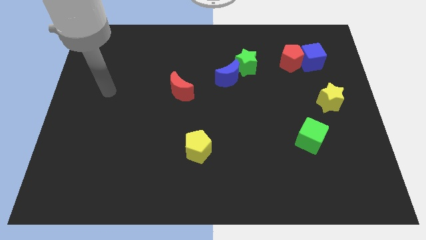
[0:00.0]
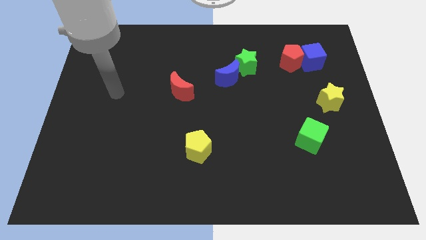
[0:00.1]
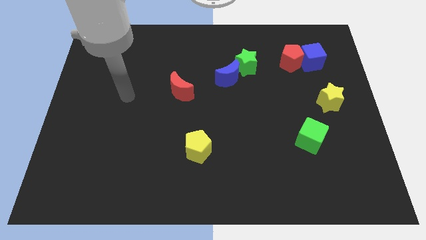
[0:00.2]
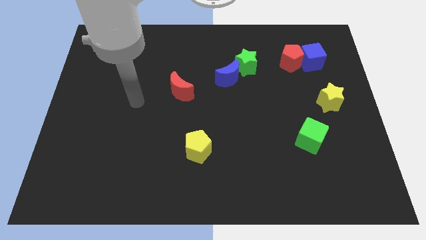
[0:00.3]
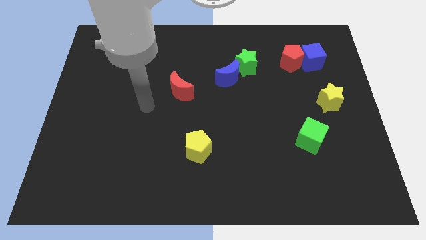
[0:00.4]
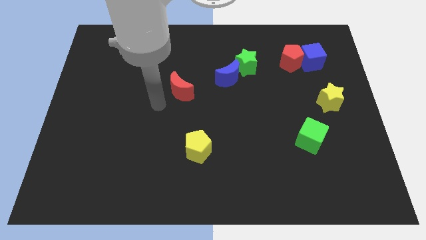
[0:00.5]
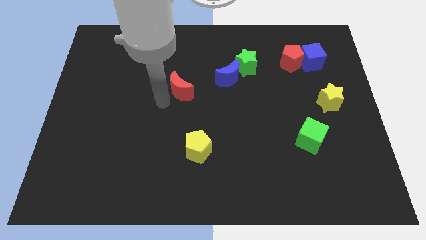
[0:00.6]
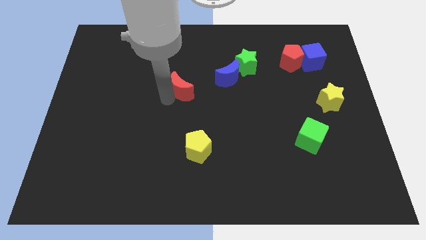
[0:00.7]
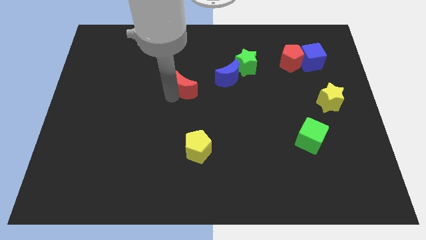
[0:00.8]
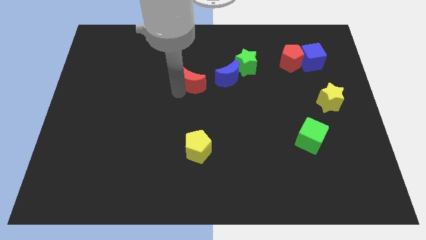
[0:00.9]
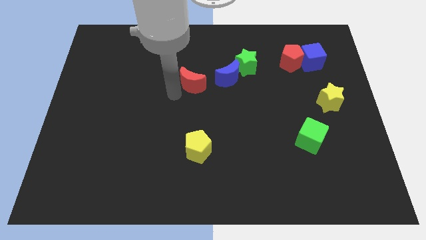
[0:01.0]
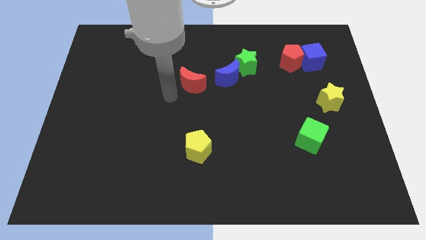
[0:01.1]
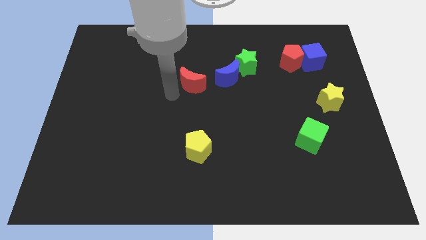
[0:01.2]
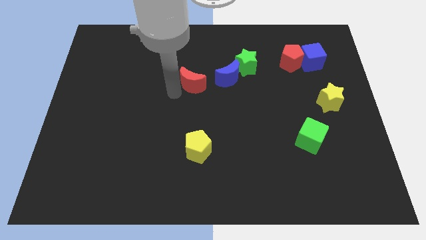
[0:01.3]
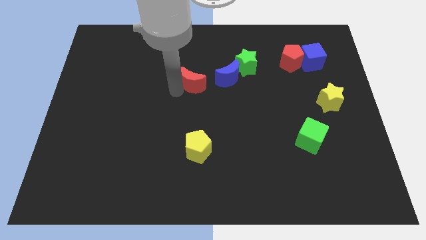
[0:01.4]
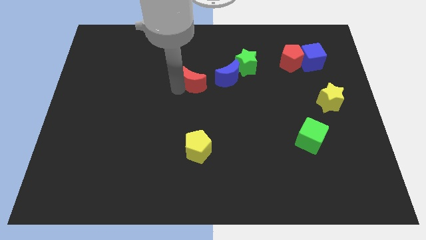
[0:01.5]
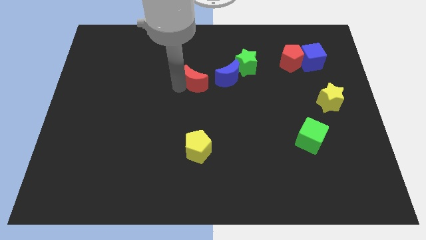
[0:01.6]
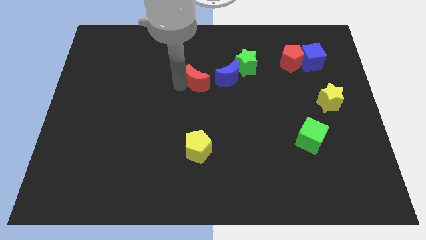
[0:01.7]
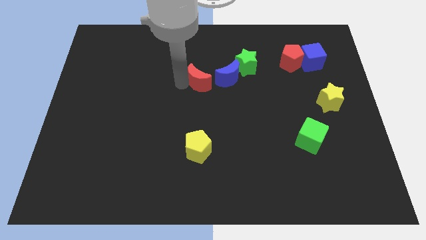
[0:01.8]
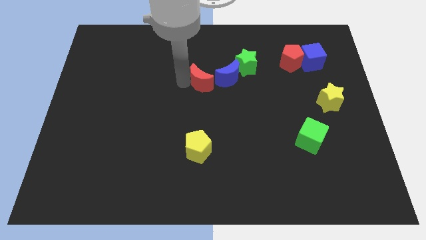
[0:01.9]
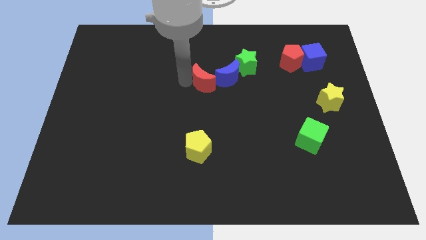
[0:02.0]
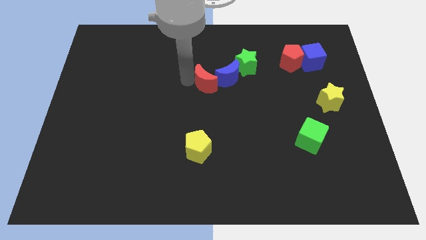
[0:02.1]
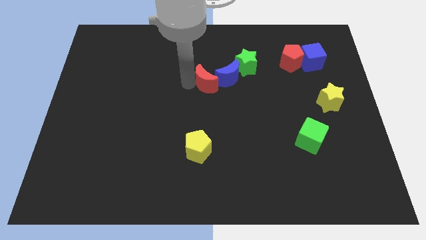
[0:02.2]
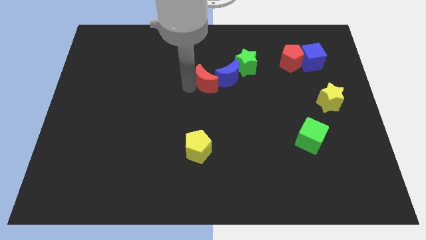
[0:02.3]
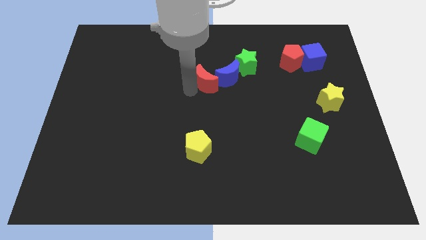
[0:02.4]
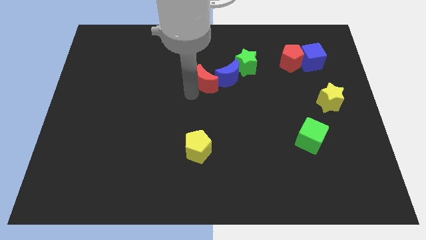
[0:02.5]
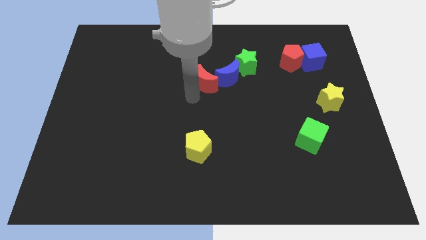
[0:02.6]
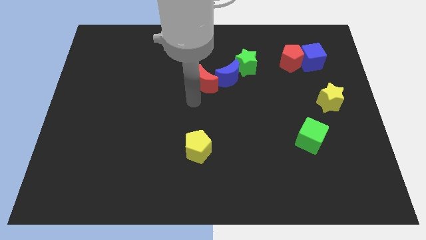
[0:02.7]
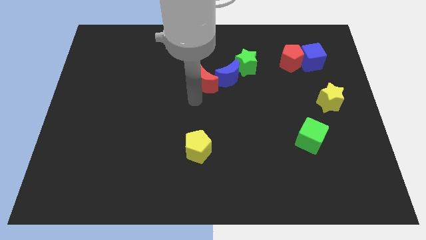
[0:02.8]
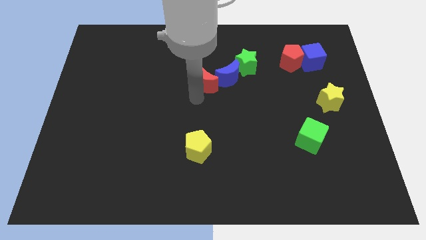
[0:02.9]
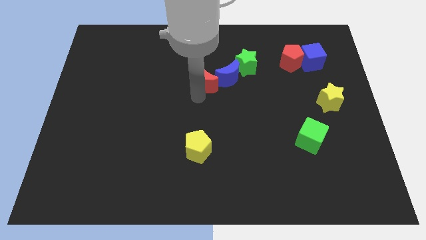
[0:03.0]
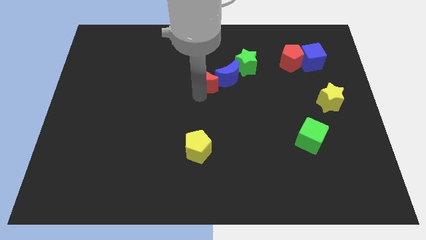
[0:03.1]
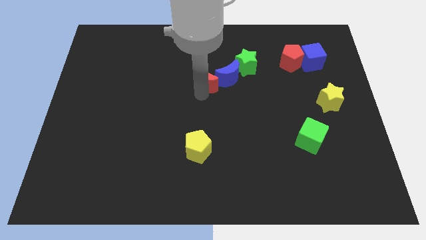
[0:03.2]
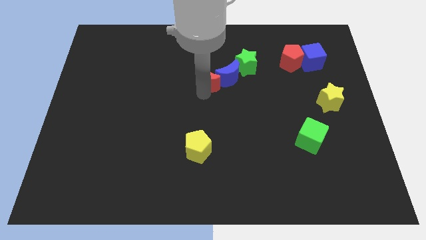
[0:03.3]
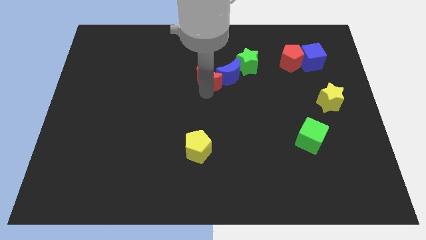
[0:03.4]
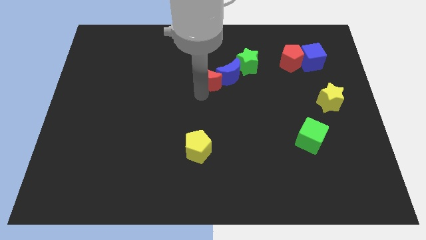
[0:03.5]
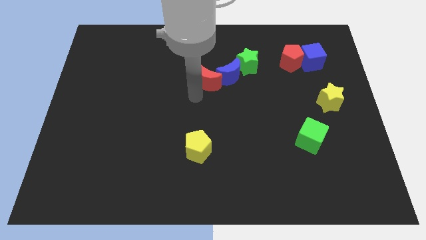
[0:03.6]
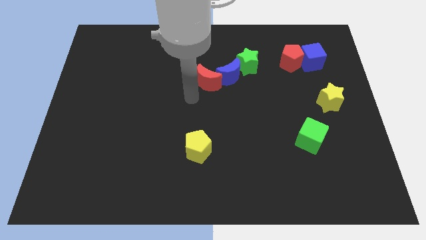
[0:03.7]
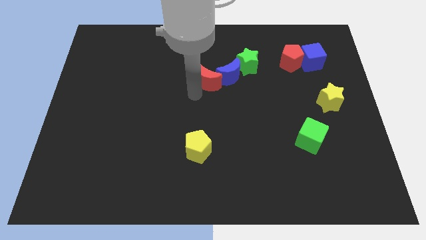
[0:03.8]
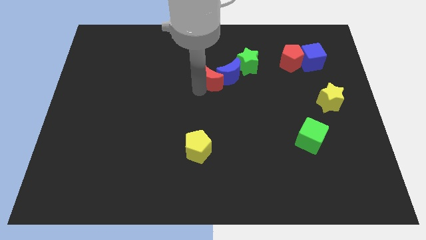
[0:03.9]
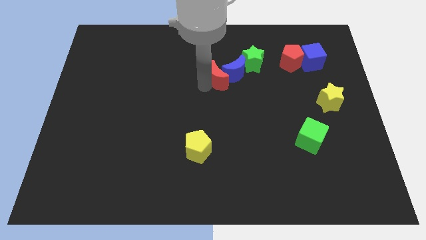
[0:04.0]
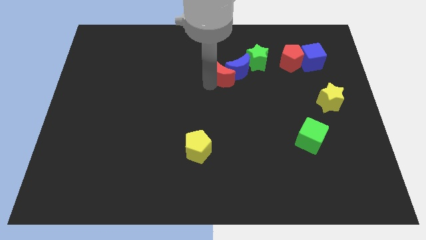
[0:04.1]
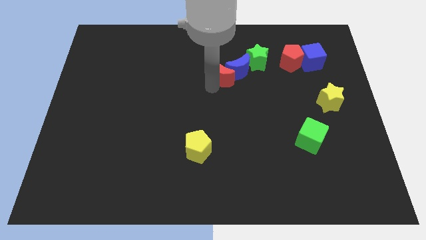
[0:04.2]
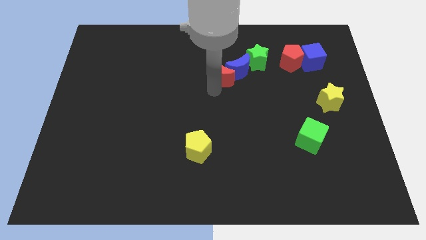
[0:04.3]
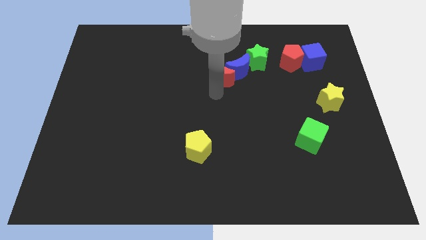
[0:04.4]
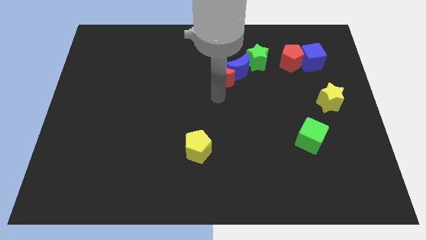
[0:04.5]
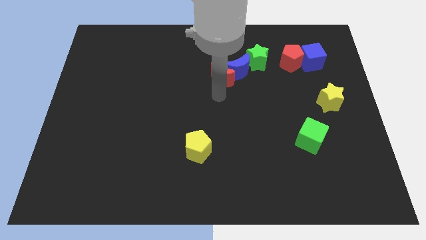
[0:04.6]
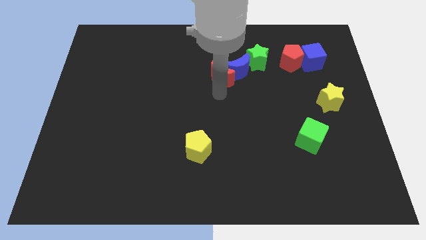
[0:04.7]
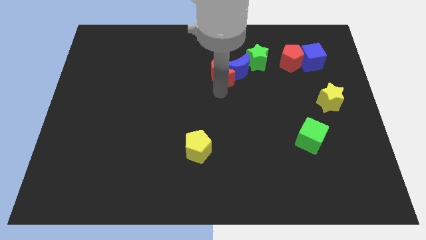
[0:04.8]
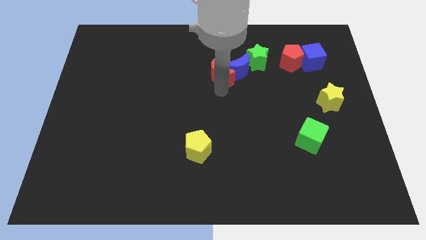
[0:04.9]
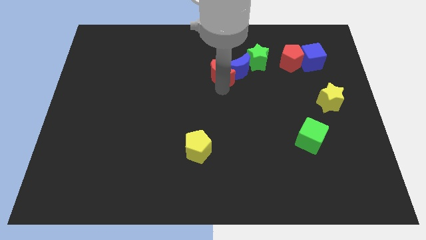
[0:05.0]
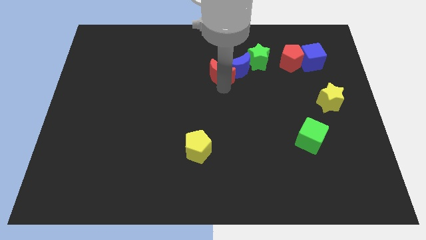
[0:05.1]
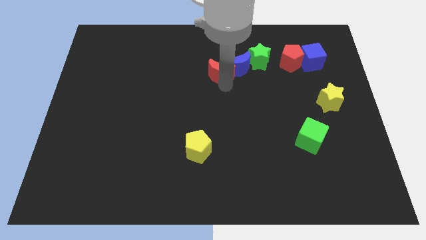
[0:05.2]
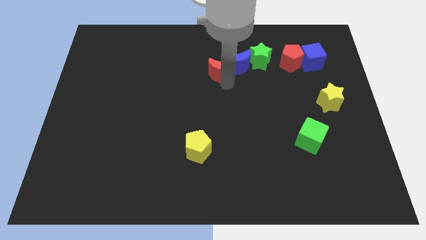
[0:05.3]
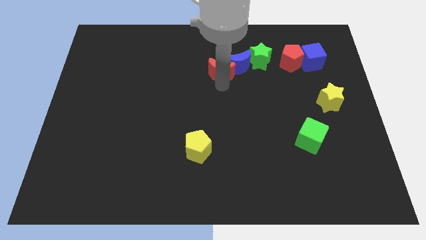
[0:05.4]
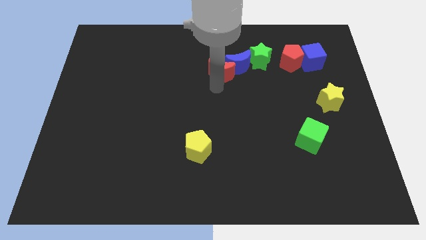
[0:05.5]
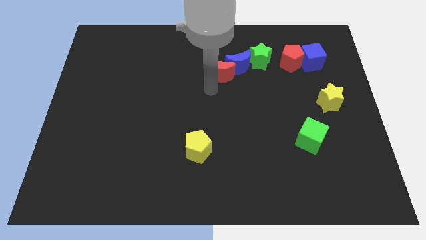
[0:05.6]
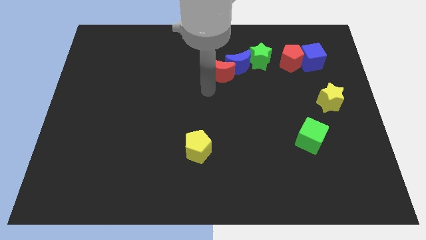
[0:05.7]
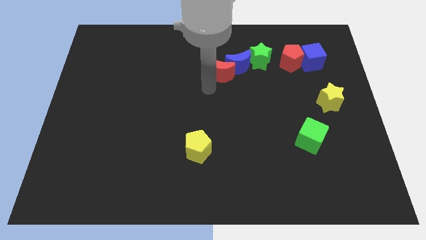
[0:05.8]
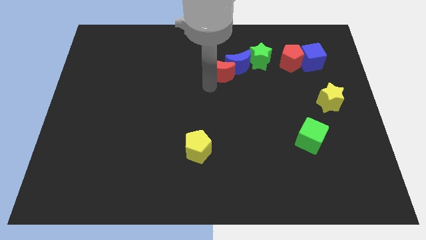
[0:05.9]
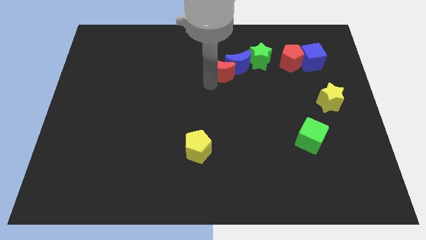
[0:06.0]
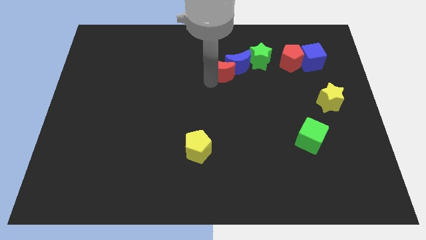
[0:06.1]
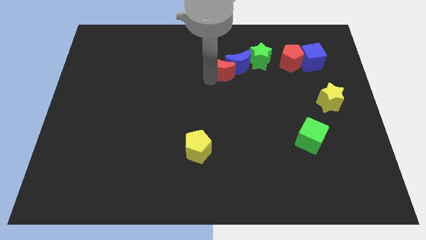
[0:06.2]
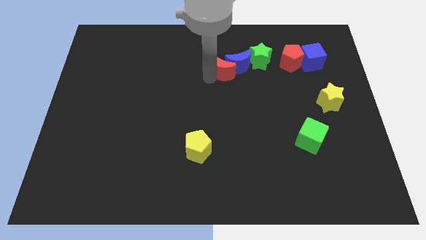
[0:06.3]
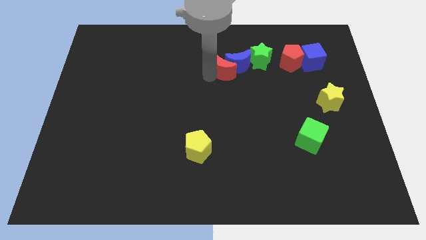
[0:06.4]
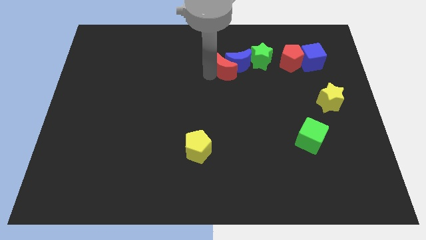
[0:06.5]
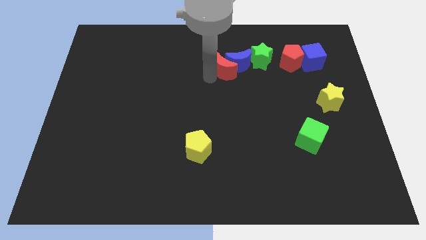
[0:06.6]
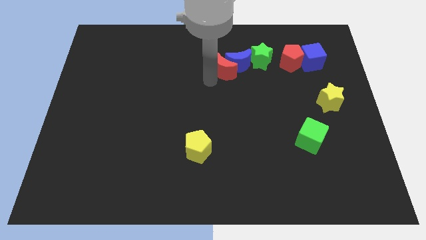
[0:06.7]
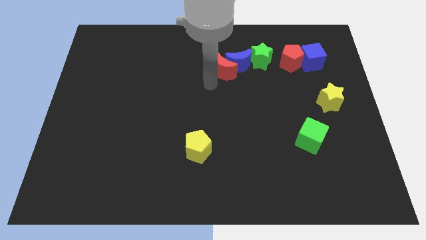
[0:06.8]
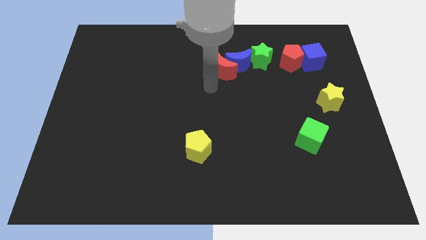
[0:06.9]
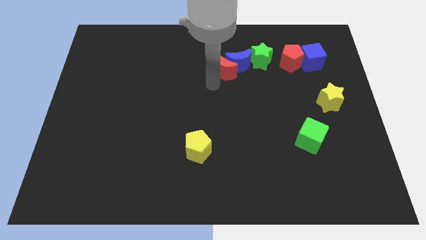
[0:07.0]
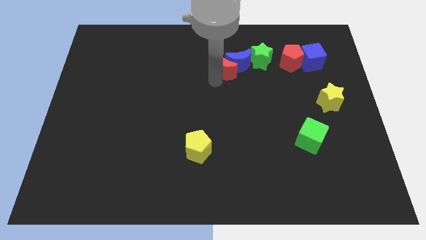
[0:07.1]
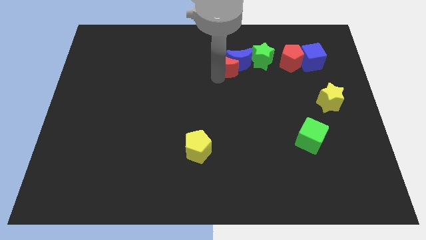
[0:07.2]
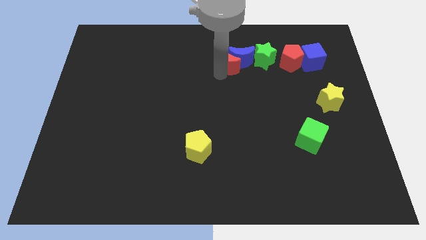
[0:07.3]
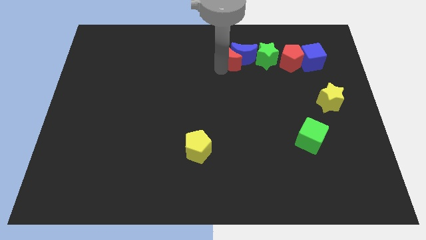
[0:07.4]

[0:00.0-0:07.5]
put the red moon to the left side of the red pentagon

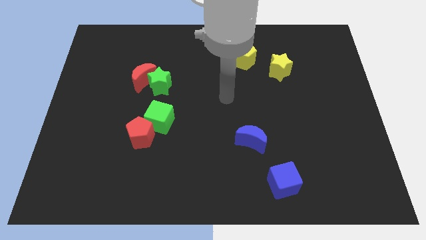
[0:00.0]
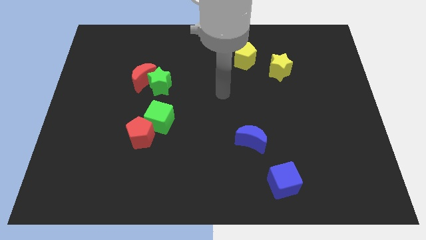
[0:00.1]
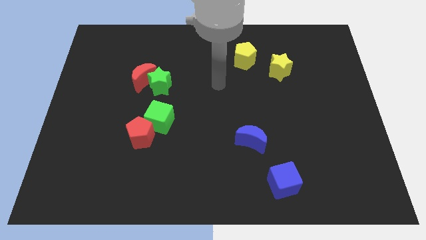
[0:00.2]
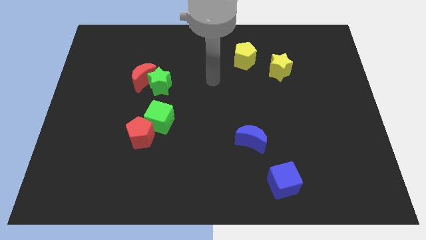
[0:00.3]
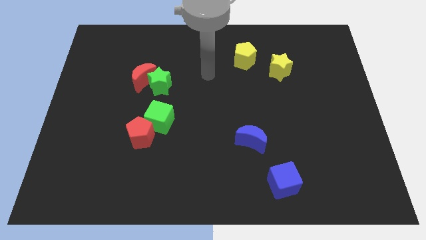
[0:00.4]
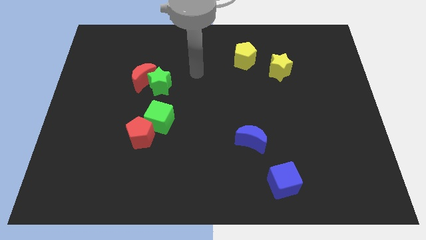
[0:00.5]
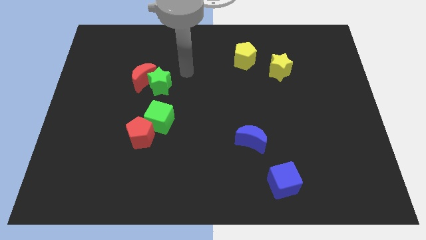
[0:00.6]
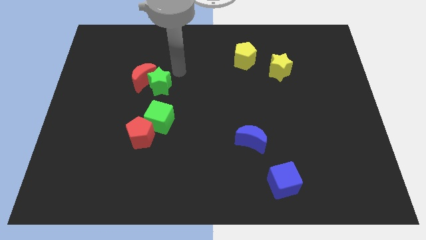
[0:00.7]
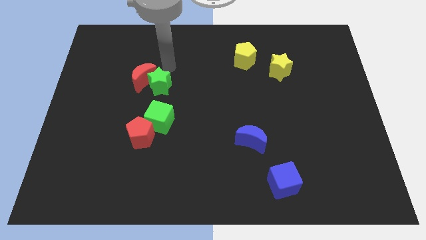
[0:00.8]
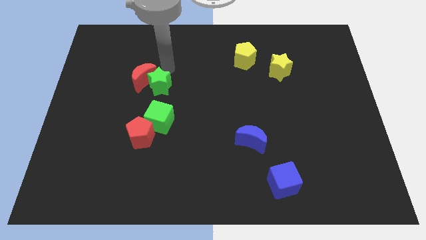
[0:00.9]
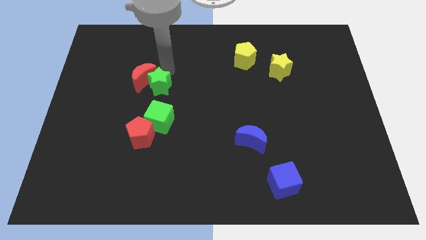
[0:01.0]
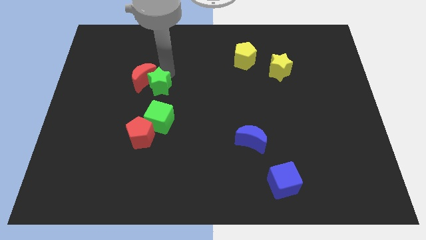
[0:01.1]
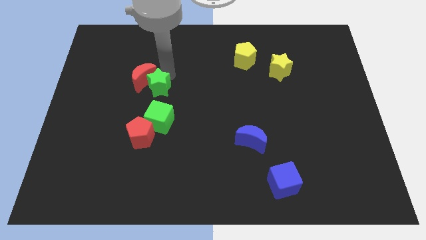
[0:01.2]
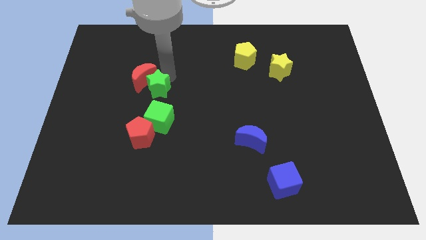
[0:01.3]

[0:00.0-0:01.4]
put the green star below the red moon
